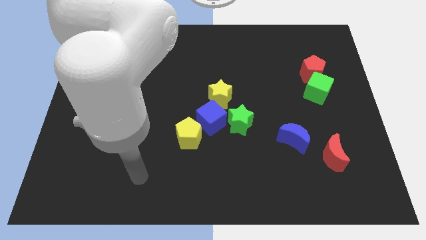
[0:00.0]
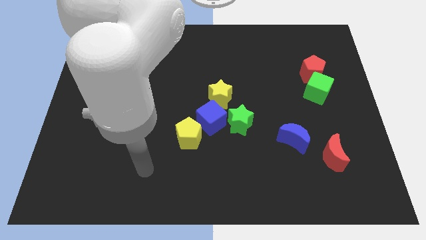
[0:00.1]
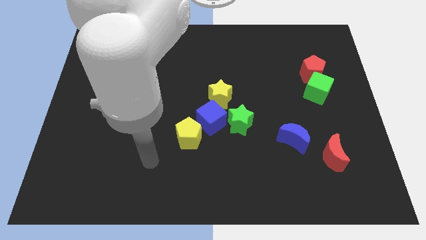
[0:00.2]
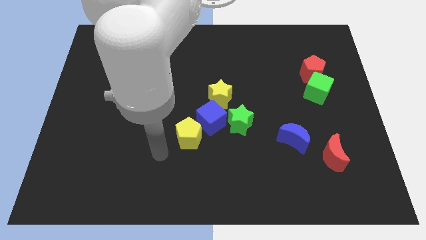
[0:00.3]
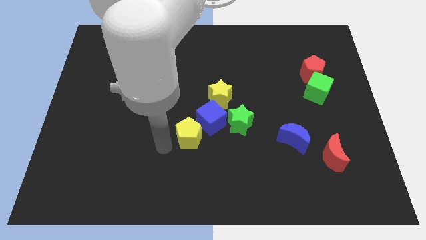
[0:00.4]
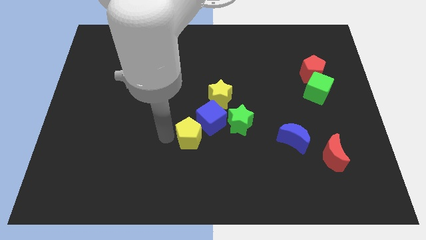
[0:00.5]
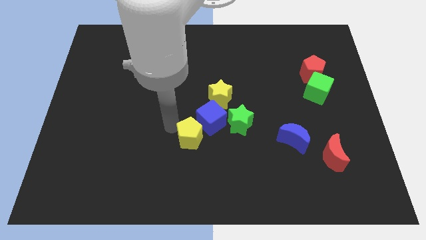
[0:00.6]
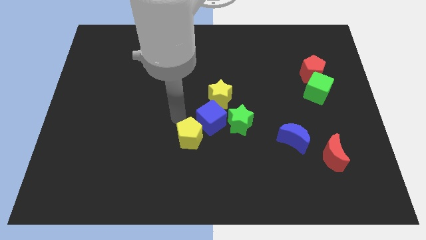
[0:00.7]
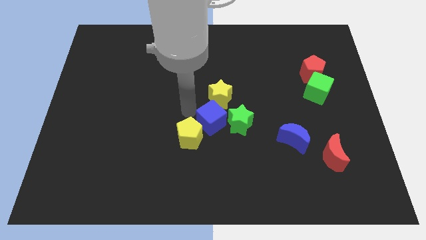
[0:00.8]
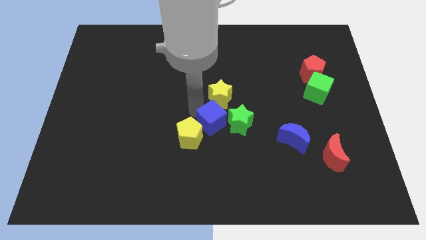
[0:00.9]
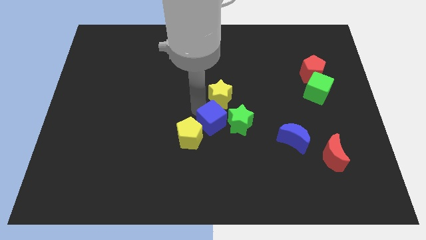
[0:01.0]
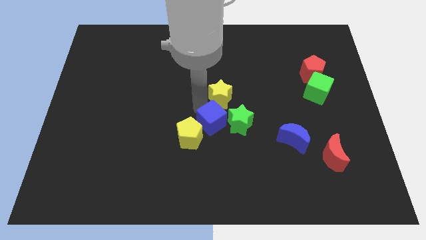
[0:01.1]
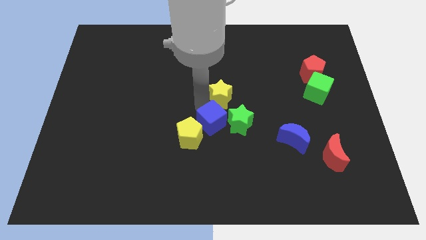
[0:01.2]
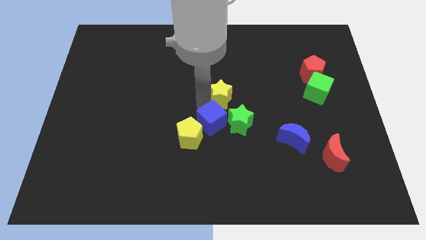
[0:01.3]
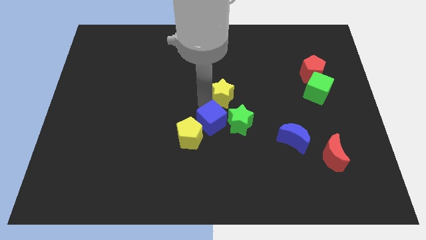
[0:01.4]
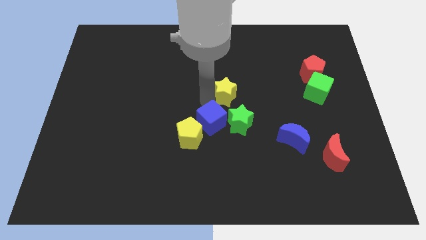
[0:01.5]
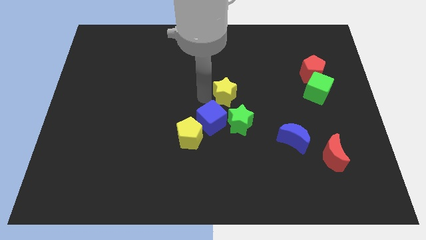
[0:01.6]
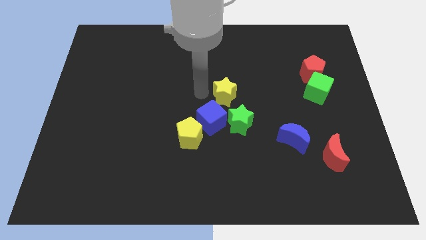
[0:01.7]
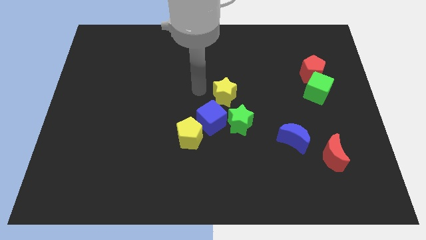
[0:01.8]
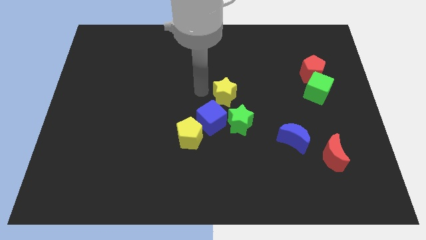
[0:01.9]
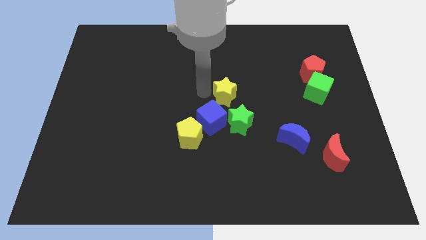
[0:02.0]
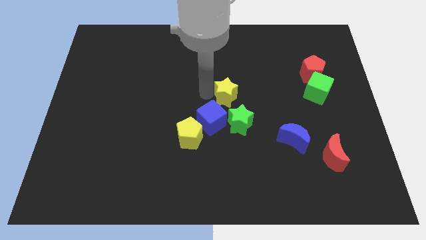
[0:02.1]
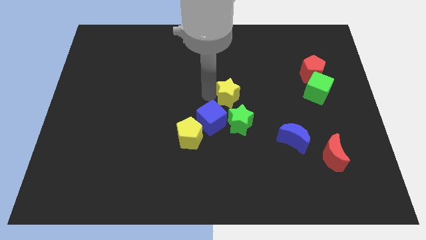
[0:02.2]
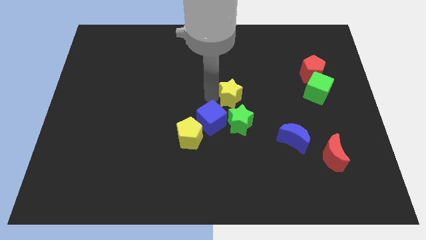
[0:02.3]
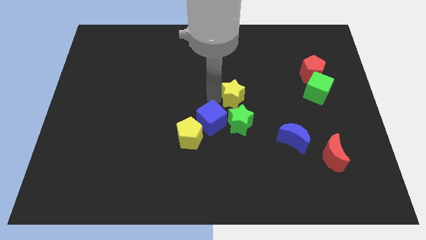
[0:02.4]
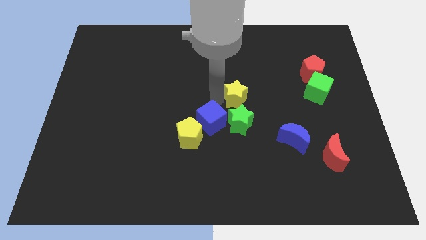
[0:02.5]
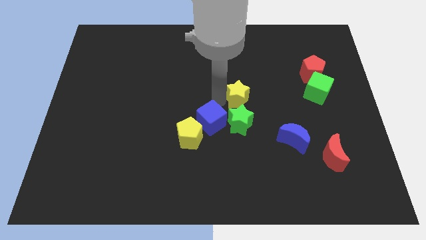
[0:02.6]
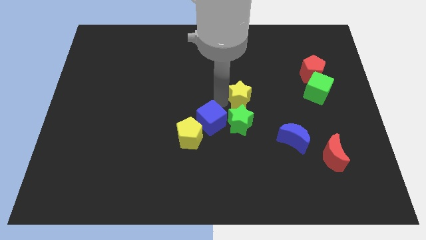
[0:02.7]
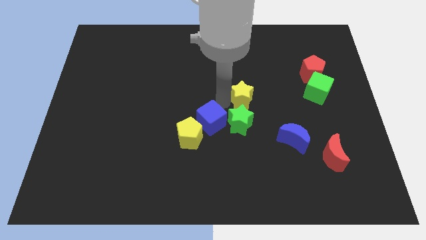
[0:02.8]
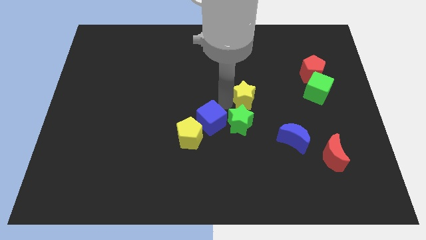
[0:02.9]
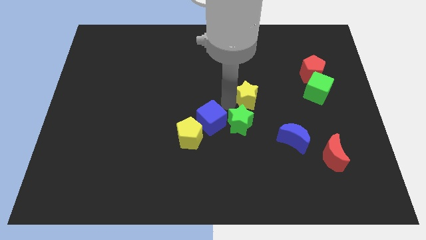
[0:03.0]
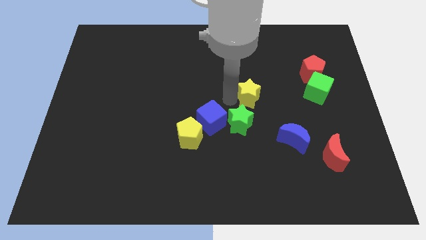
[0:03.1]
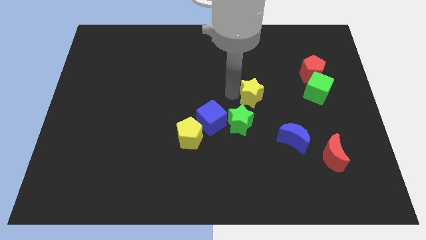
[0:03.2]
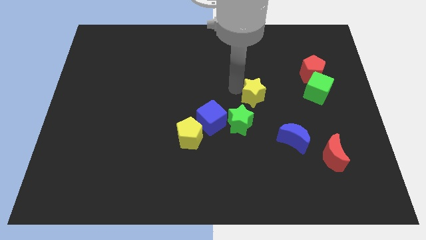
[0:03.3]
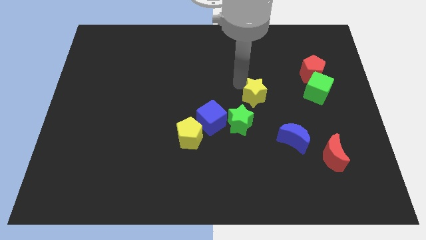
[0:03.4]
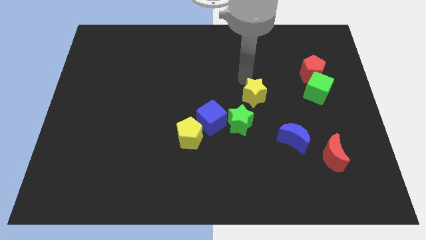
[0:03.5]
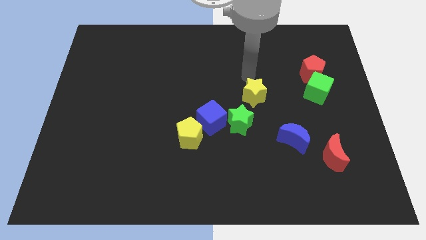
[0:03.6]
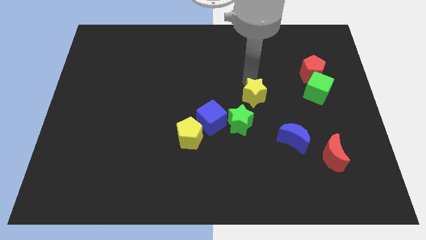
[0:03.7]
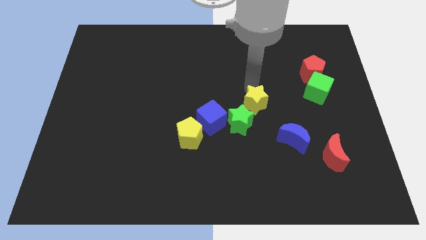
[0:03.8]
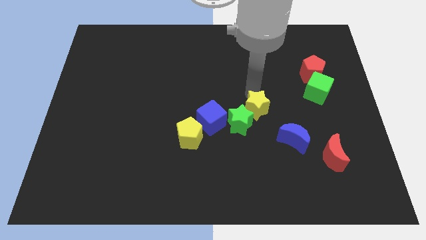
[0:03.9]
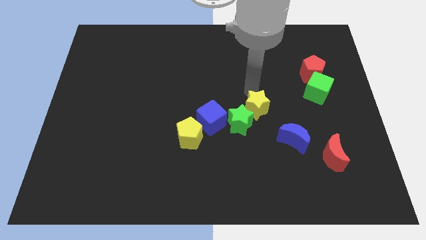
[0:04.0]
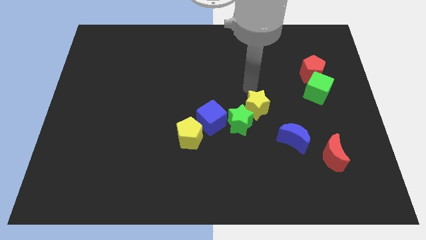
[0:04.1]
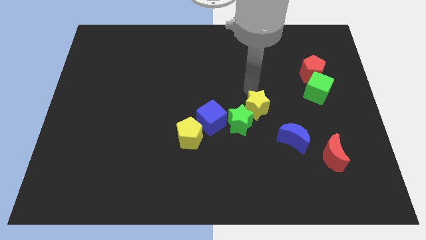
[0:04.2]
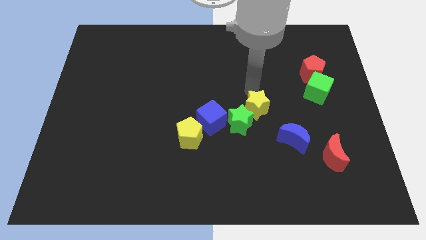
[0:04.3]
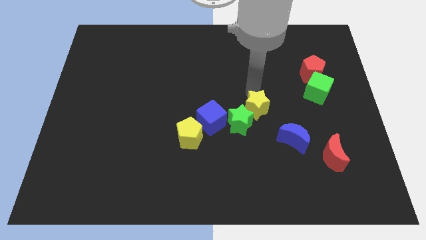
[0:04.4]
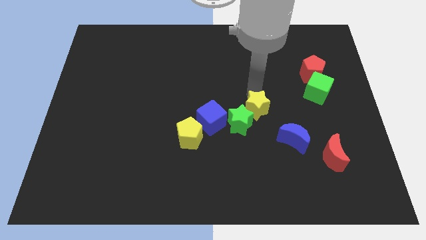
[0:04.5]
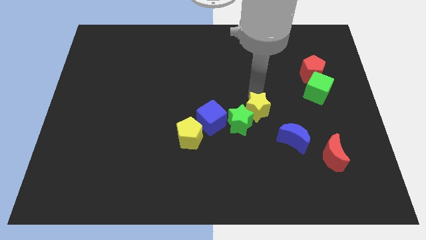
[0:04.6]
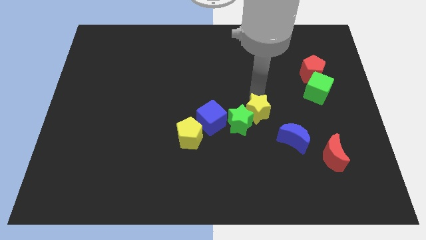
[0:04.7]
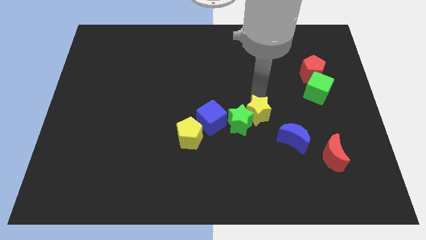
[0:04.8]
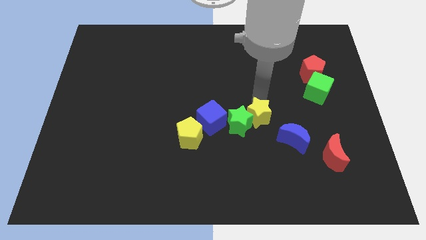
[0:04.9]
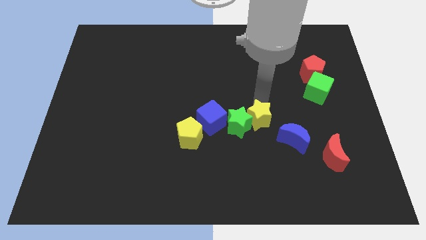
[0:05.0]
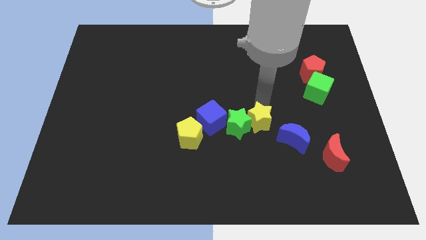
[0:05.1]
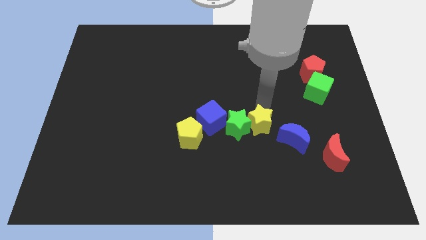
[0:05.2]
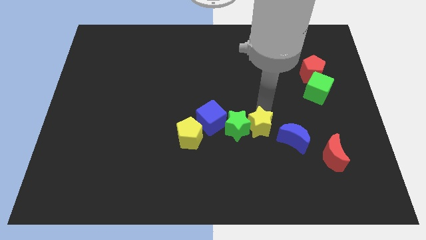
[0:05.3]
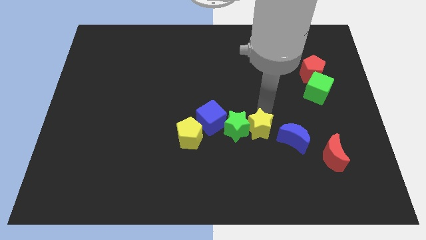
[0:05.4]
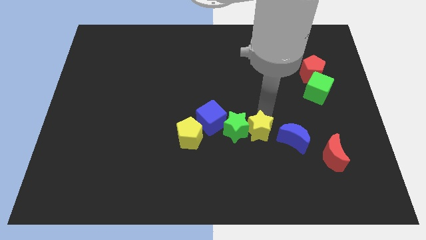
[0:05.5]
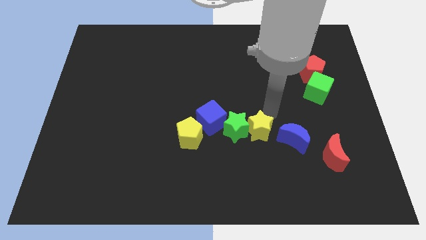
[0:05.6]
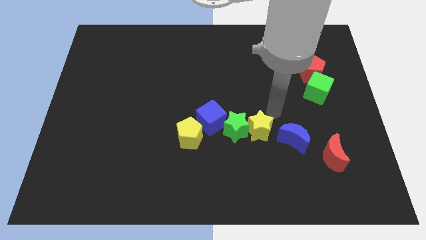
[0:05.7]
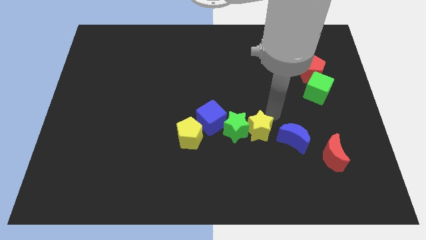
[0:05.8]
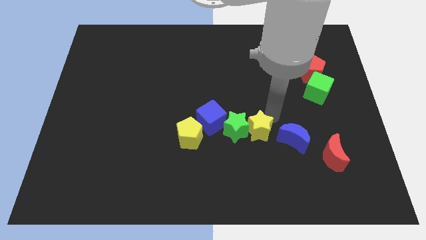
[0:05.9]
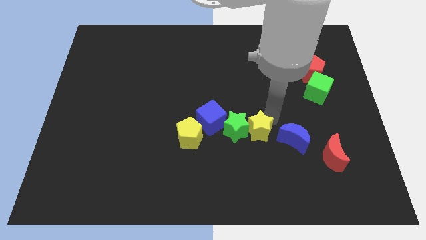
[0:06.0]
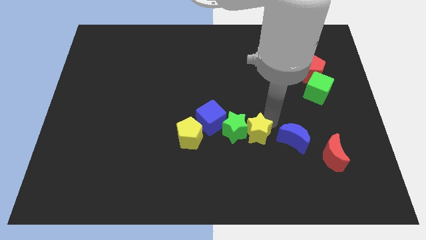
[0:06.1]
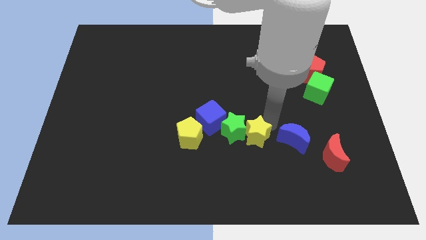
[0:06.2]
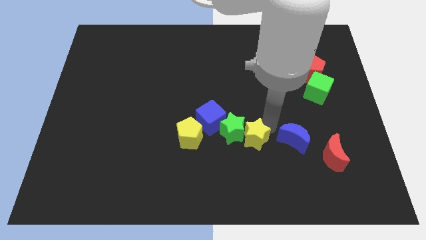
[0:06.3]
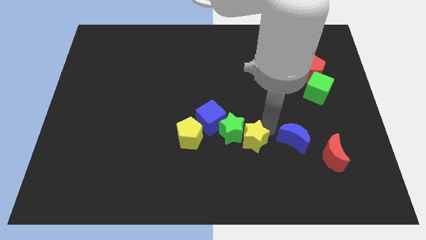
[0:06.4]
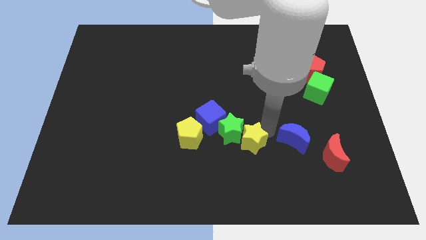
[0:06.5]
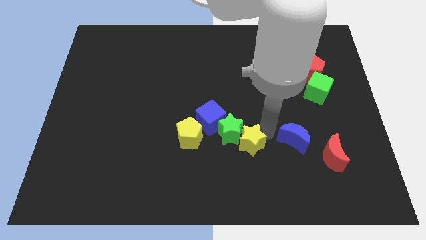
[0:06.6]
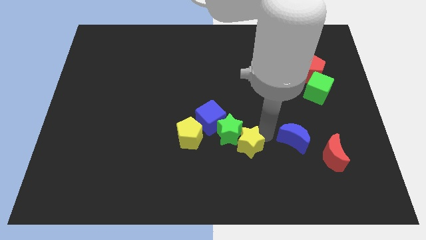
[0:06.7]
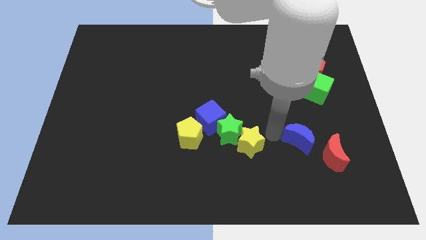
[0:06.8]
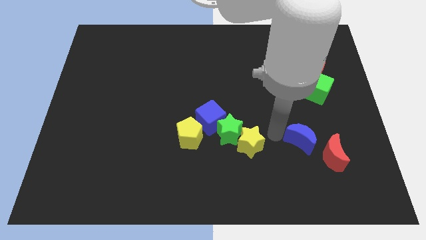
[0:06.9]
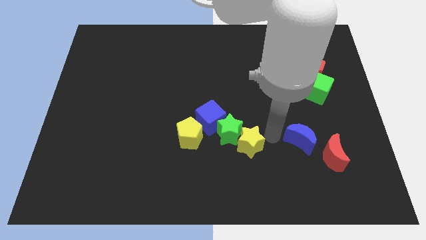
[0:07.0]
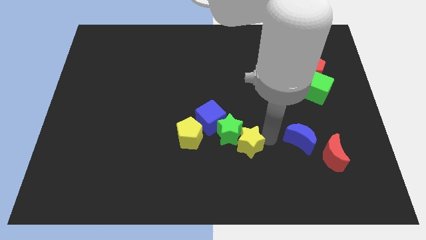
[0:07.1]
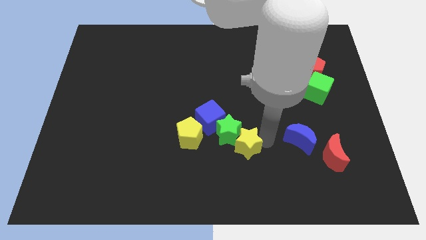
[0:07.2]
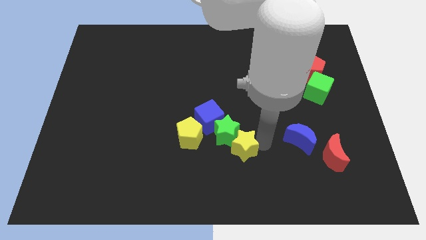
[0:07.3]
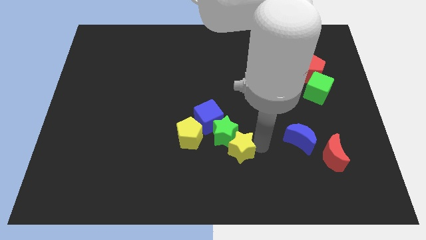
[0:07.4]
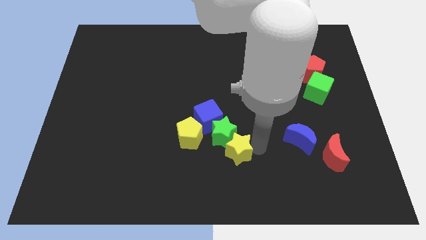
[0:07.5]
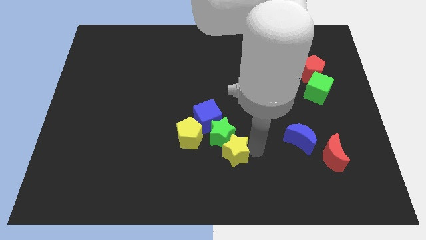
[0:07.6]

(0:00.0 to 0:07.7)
slide the yellow star diagonally down and to the right of the yellow pentagon
